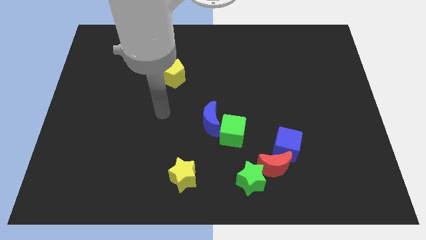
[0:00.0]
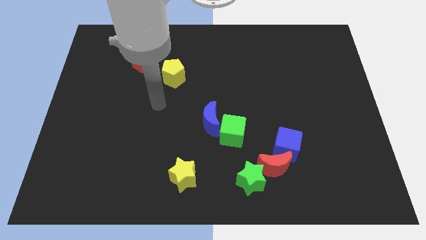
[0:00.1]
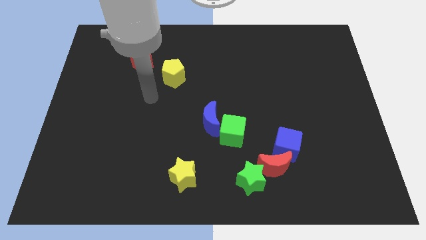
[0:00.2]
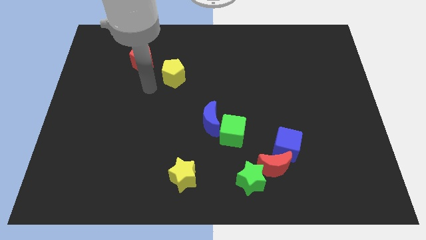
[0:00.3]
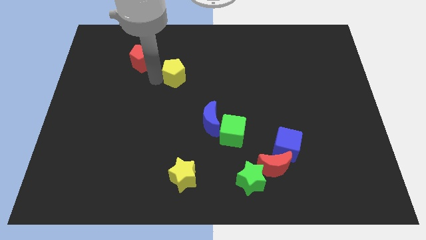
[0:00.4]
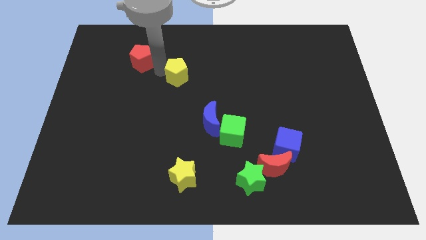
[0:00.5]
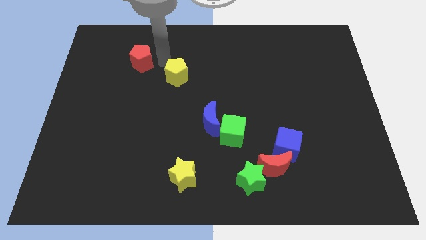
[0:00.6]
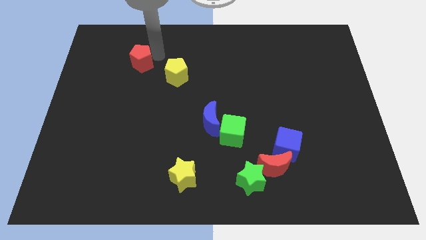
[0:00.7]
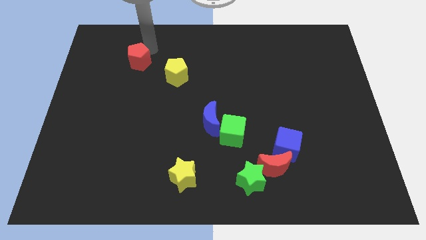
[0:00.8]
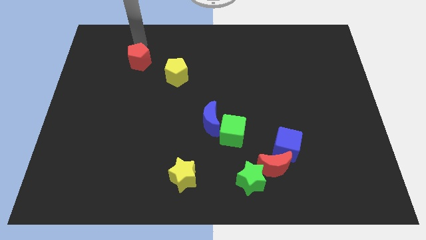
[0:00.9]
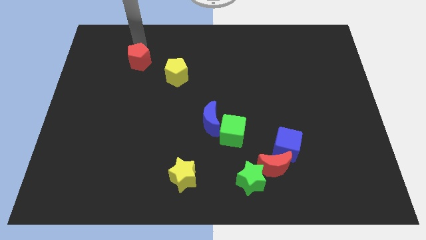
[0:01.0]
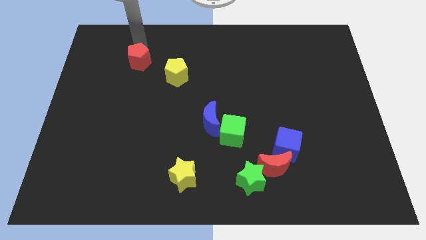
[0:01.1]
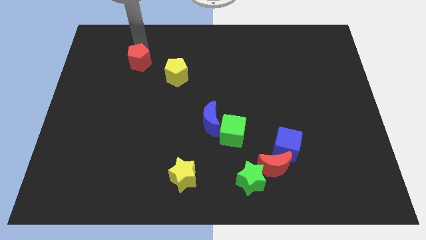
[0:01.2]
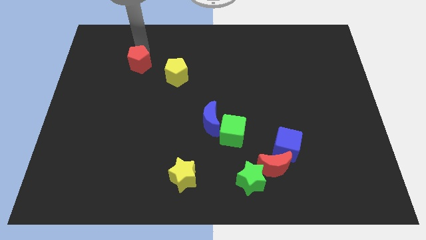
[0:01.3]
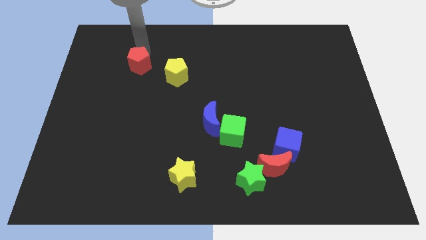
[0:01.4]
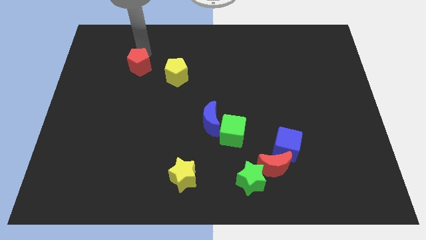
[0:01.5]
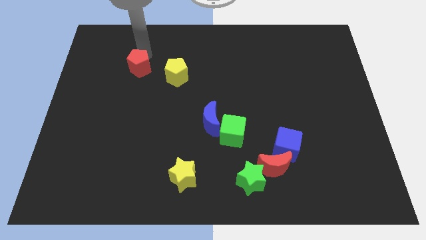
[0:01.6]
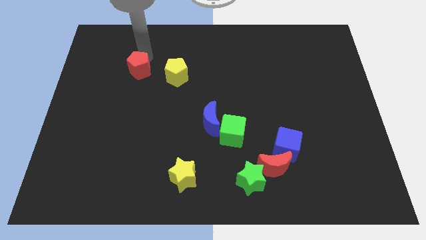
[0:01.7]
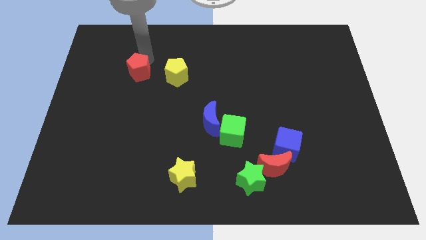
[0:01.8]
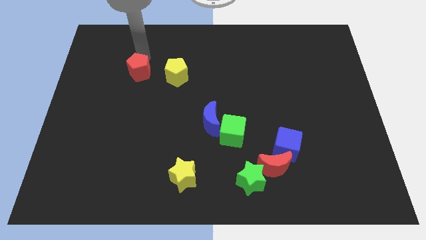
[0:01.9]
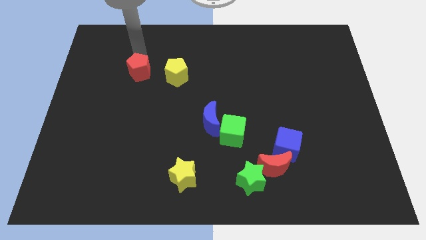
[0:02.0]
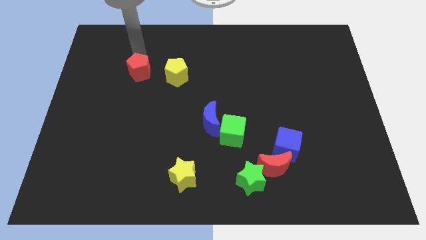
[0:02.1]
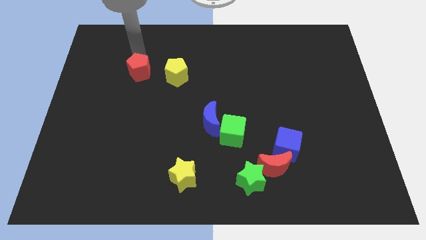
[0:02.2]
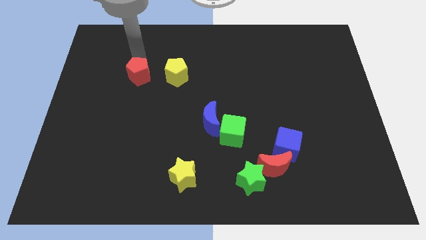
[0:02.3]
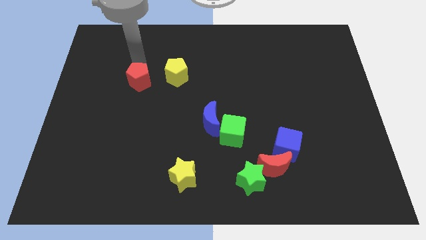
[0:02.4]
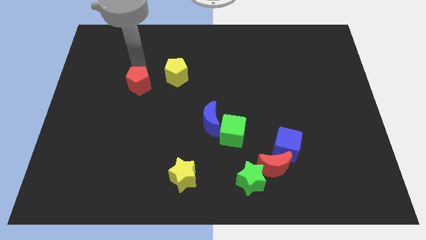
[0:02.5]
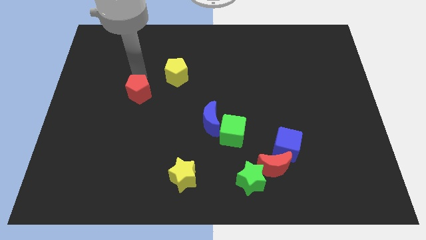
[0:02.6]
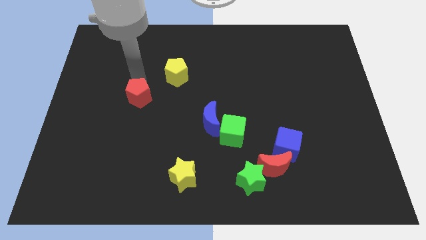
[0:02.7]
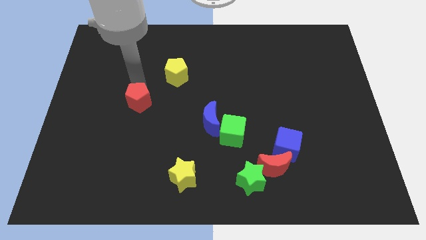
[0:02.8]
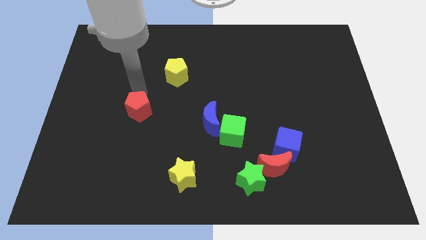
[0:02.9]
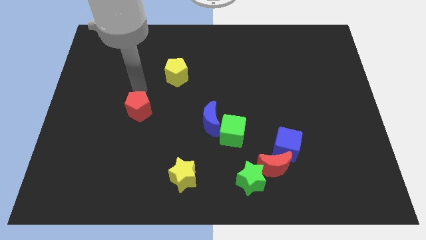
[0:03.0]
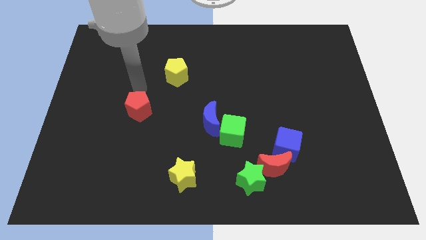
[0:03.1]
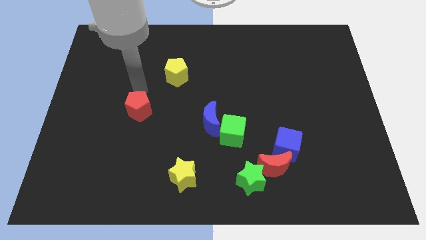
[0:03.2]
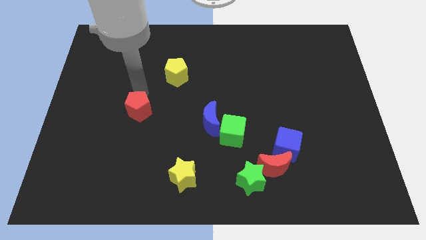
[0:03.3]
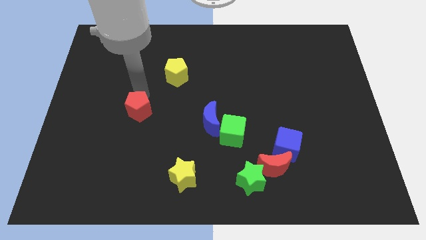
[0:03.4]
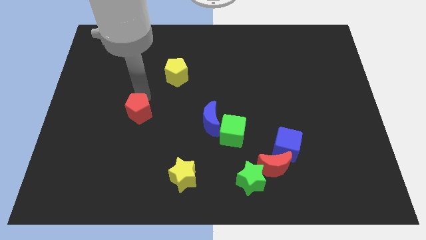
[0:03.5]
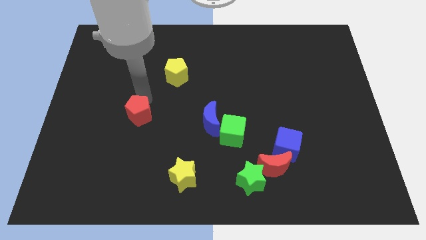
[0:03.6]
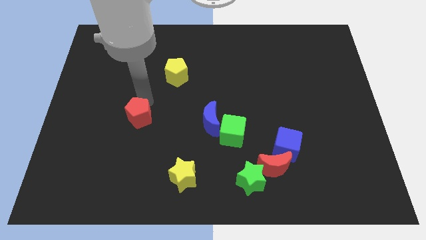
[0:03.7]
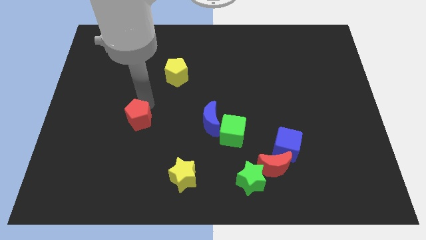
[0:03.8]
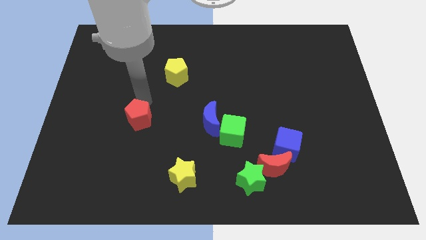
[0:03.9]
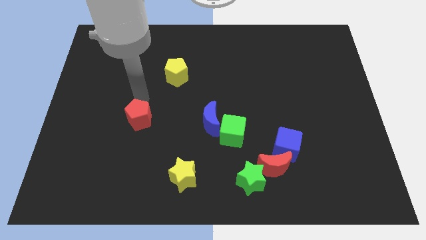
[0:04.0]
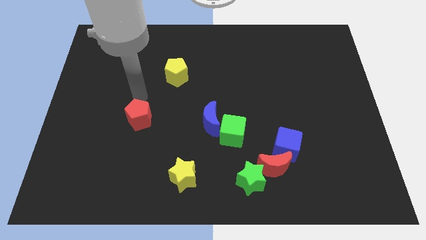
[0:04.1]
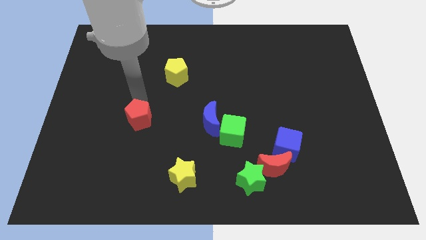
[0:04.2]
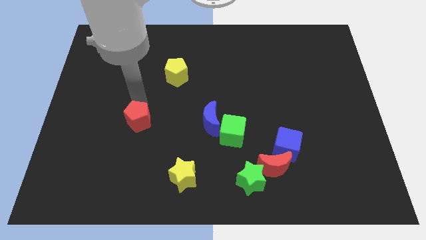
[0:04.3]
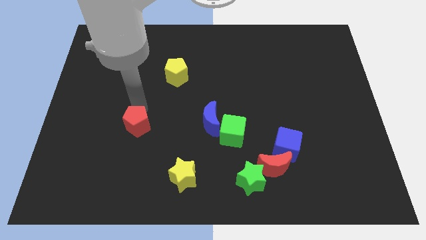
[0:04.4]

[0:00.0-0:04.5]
push the red pentagon down

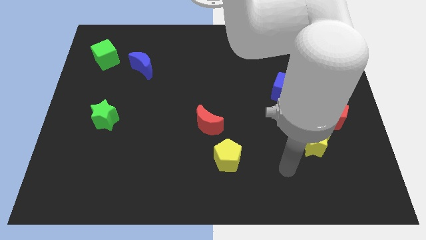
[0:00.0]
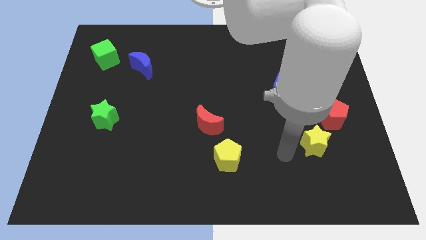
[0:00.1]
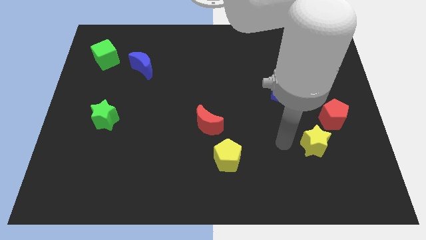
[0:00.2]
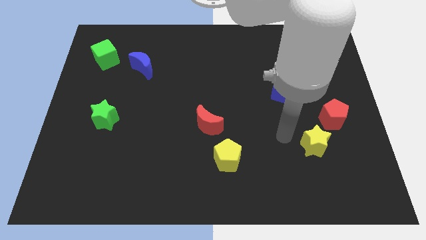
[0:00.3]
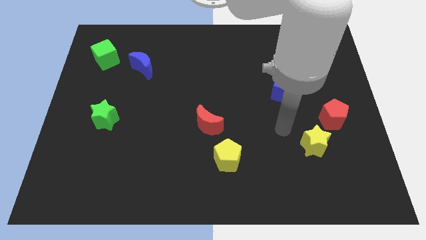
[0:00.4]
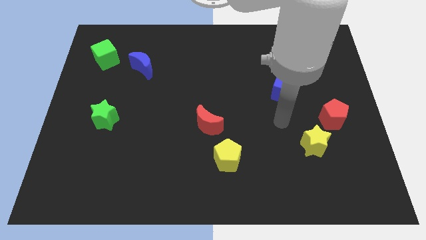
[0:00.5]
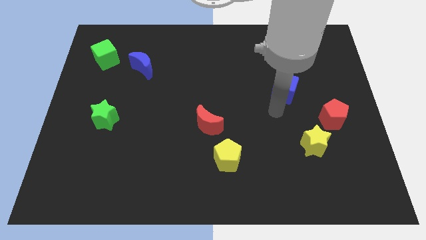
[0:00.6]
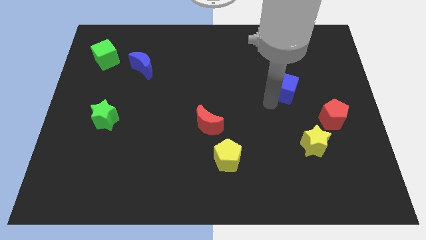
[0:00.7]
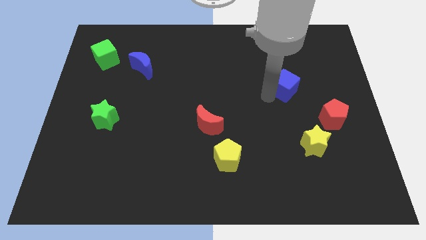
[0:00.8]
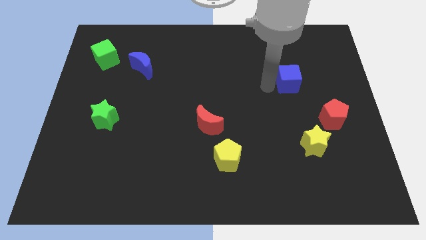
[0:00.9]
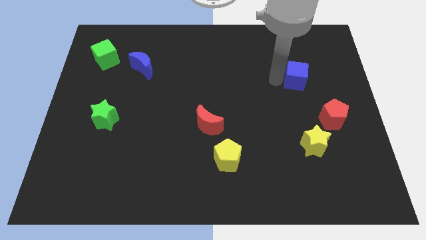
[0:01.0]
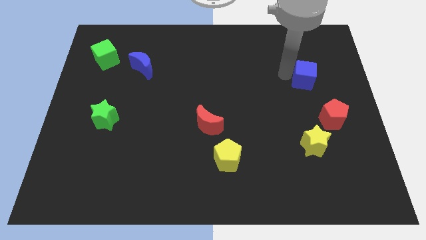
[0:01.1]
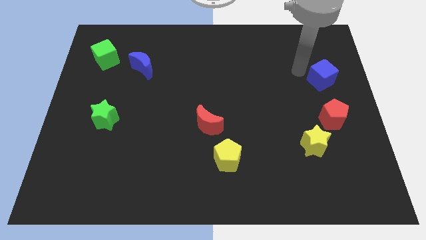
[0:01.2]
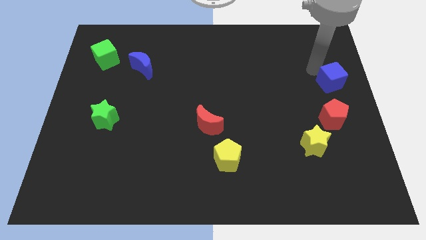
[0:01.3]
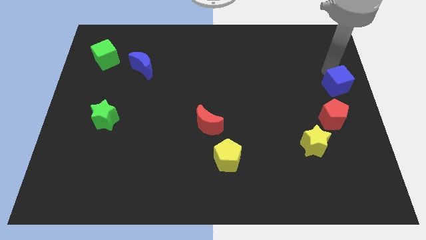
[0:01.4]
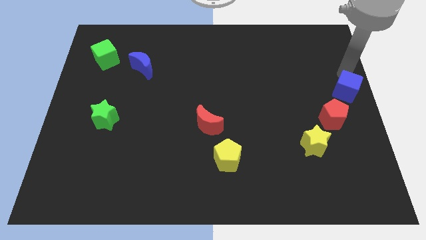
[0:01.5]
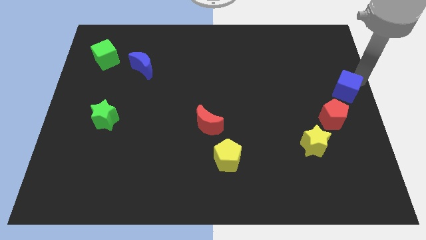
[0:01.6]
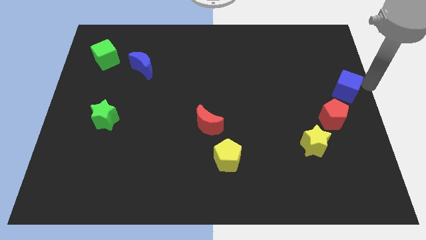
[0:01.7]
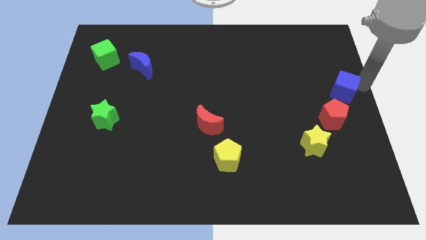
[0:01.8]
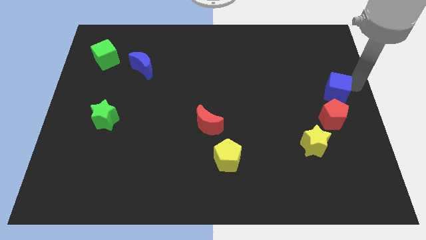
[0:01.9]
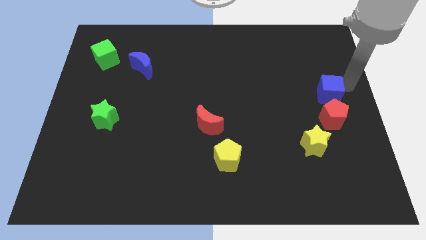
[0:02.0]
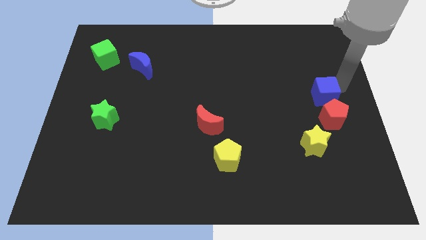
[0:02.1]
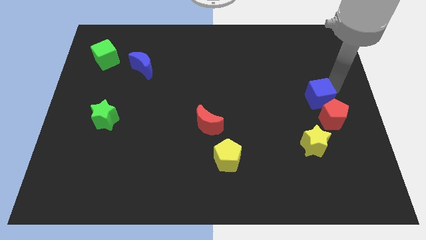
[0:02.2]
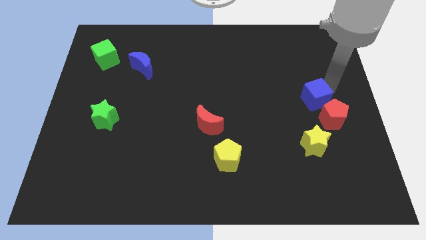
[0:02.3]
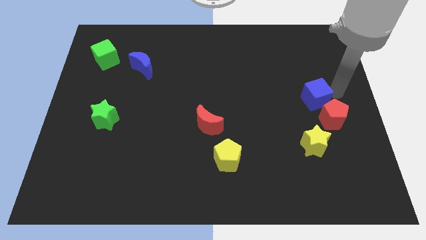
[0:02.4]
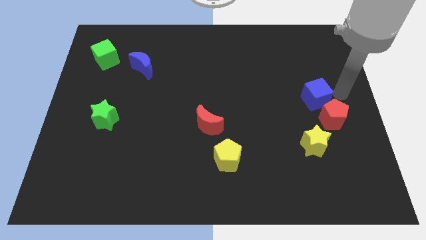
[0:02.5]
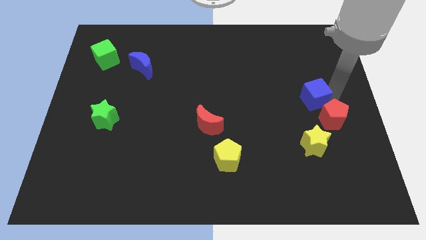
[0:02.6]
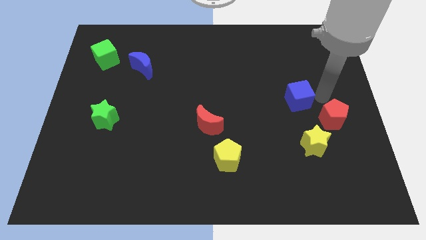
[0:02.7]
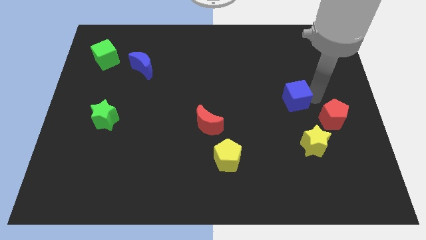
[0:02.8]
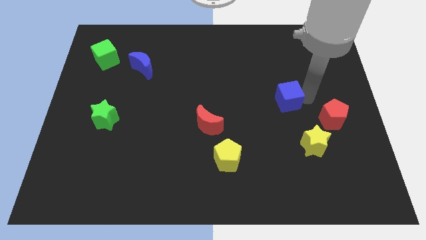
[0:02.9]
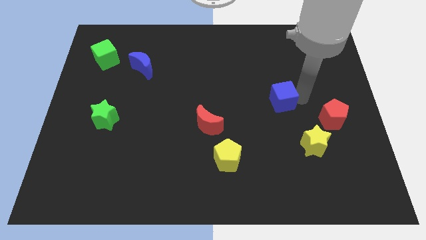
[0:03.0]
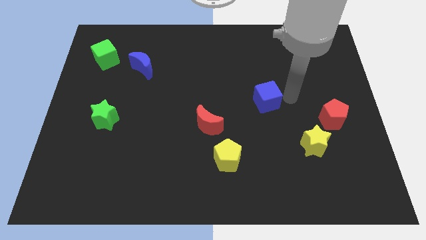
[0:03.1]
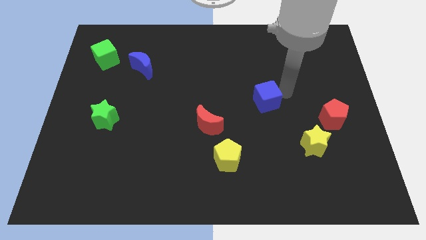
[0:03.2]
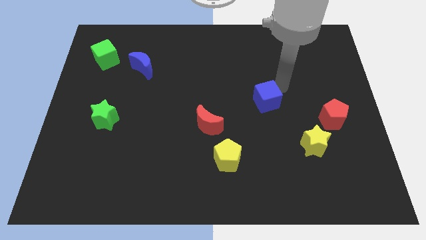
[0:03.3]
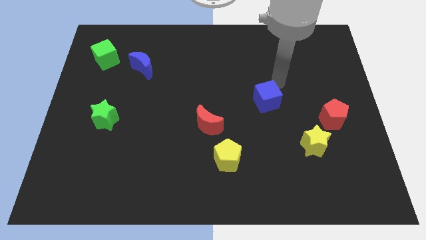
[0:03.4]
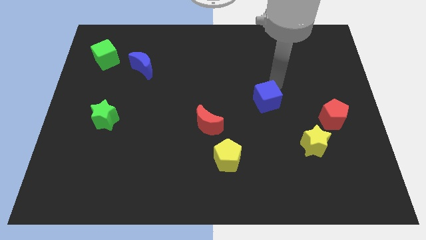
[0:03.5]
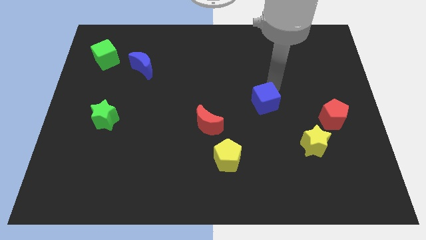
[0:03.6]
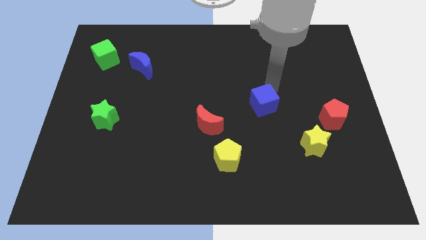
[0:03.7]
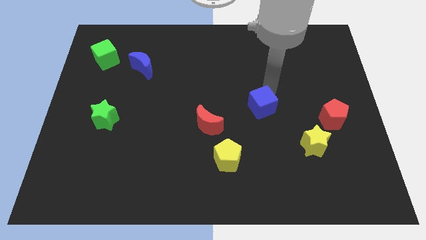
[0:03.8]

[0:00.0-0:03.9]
slide the blue cube slightly down and then left
